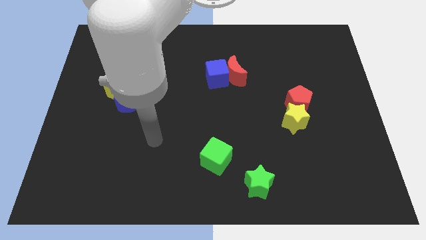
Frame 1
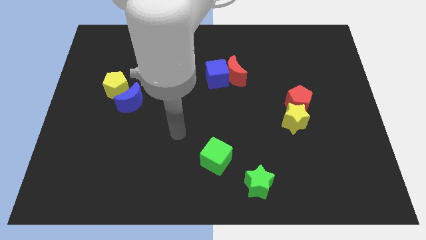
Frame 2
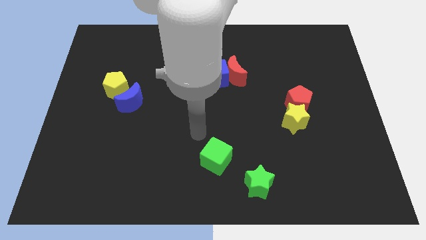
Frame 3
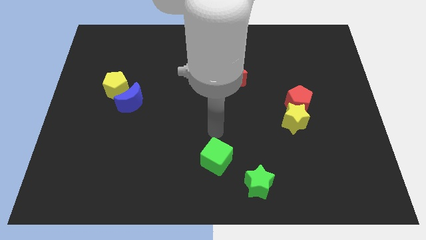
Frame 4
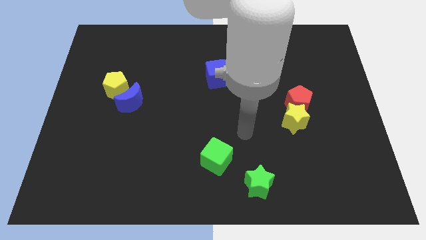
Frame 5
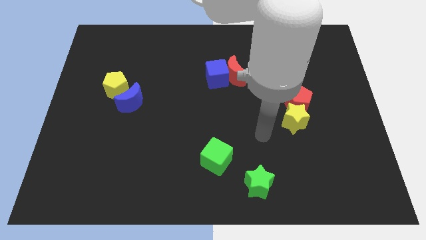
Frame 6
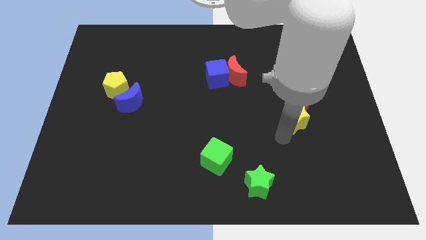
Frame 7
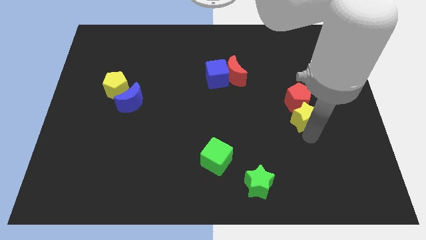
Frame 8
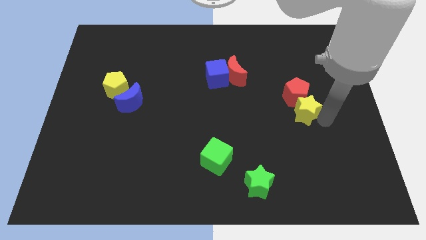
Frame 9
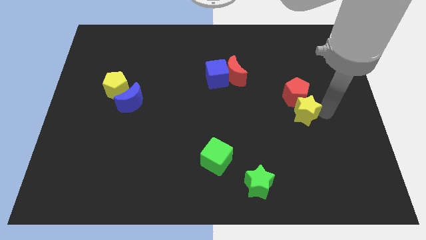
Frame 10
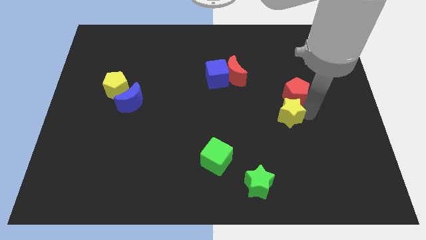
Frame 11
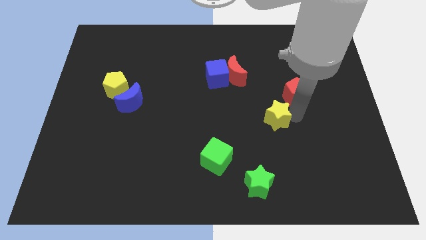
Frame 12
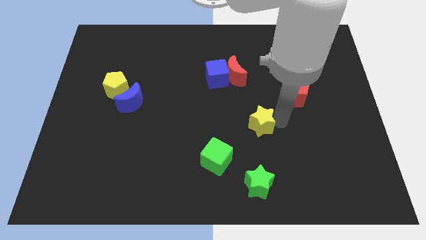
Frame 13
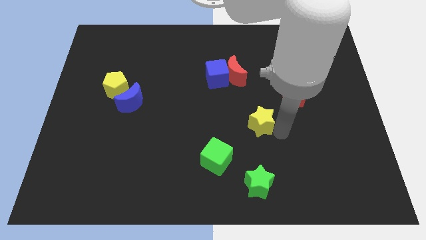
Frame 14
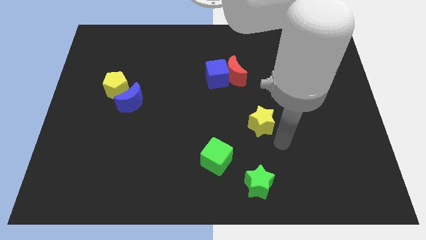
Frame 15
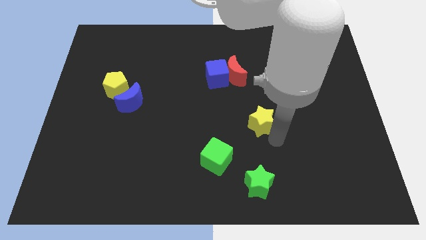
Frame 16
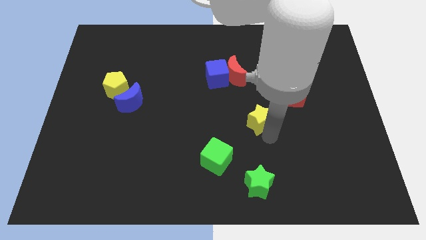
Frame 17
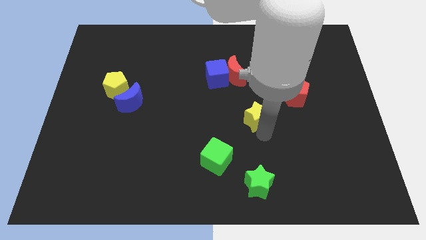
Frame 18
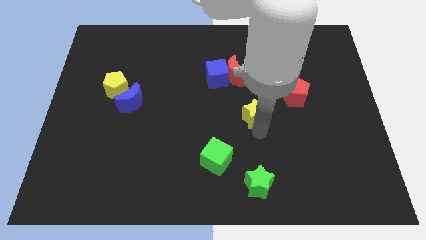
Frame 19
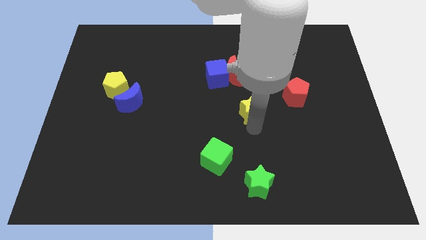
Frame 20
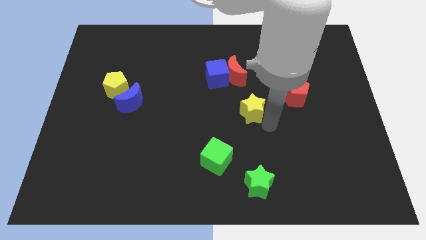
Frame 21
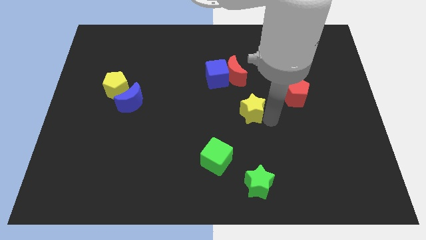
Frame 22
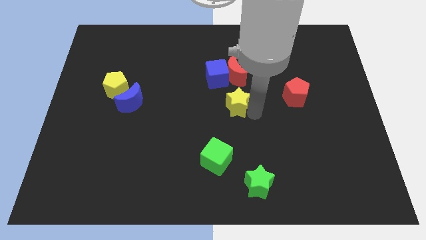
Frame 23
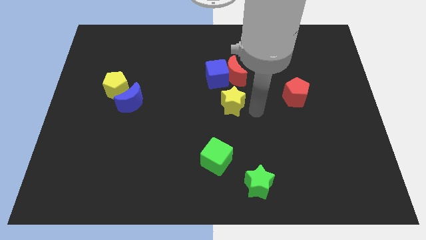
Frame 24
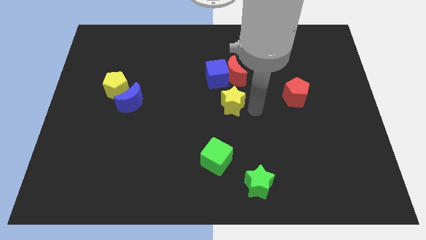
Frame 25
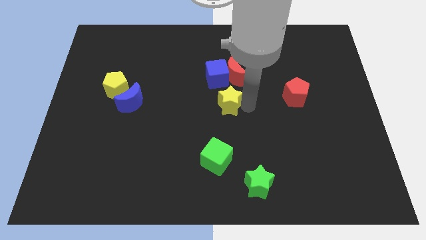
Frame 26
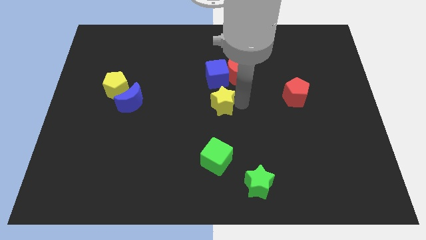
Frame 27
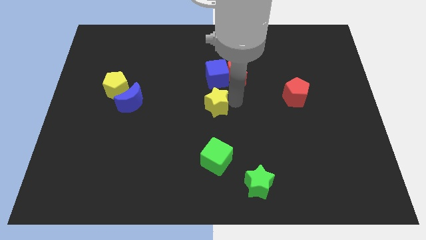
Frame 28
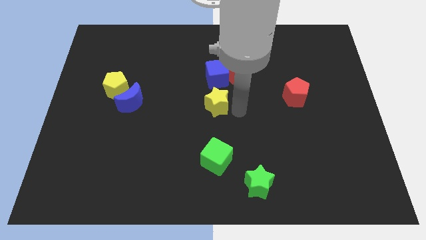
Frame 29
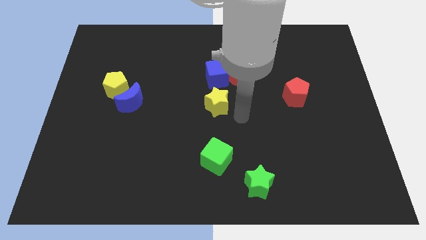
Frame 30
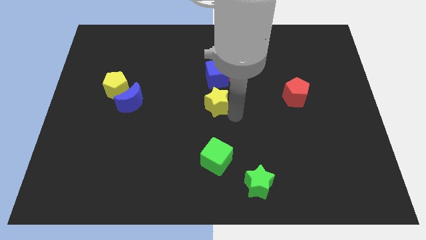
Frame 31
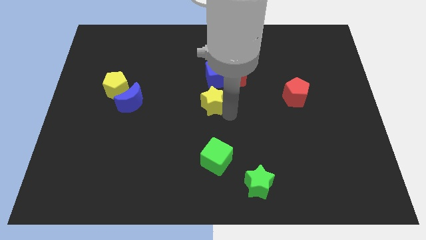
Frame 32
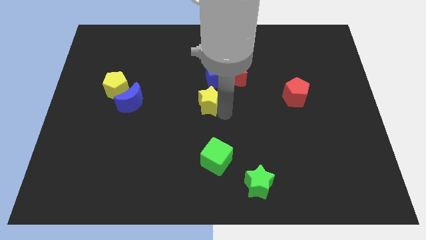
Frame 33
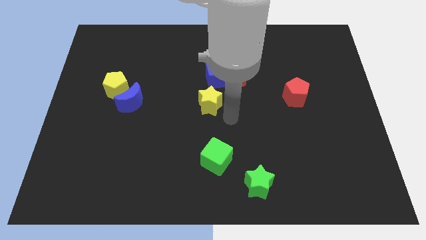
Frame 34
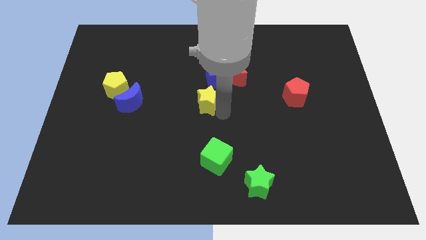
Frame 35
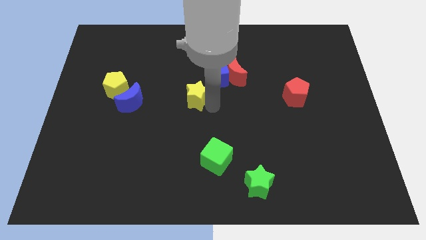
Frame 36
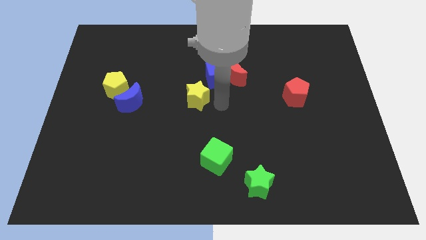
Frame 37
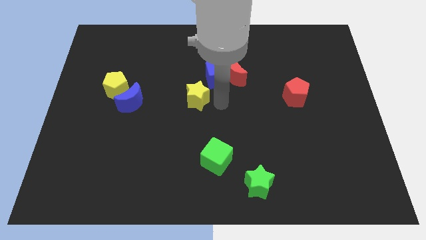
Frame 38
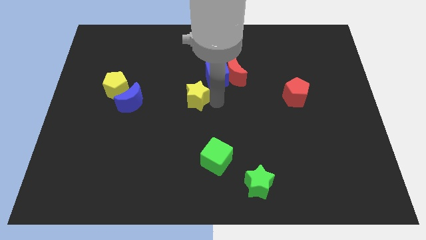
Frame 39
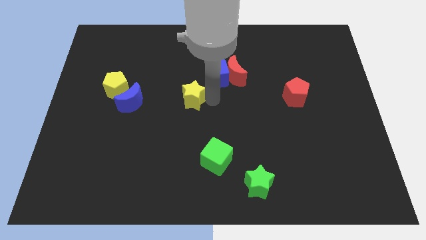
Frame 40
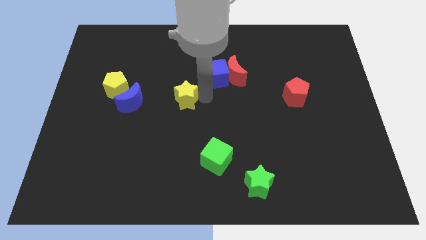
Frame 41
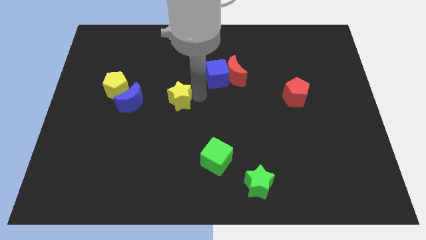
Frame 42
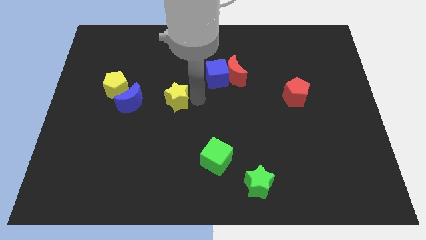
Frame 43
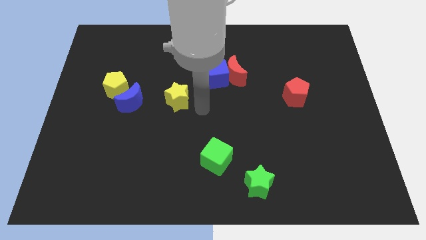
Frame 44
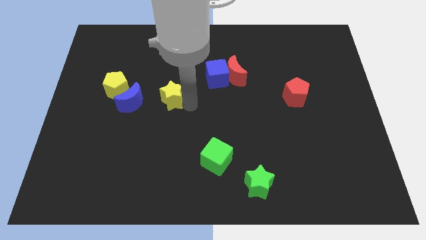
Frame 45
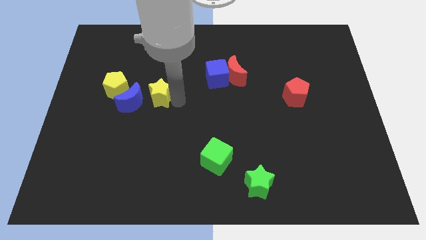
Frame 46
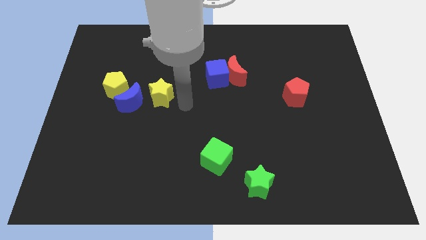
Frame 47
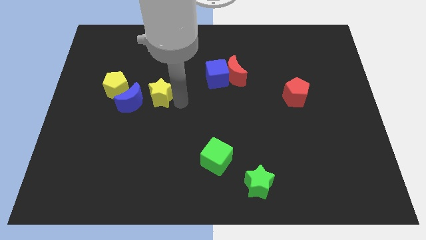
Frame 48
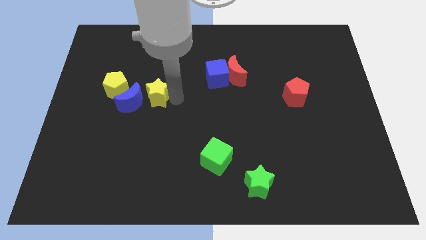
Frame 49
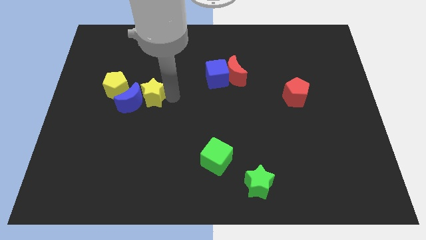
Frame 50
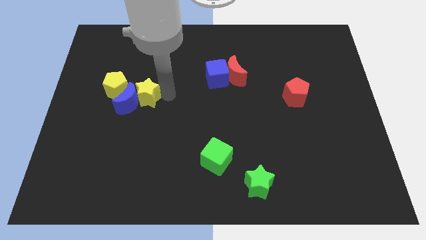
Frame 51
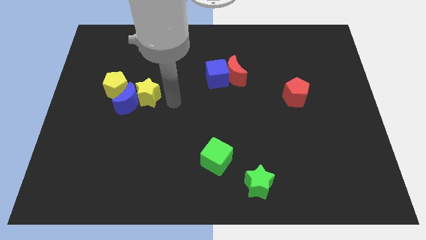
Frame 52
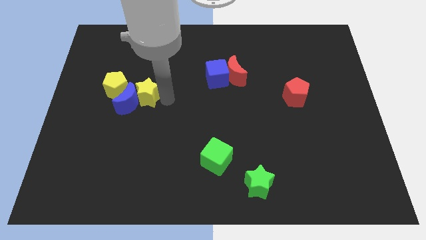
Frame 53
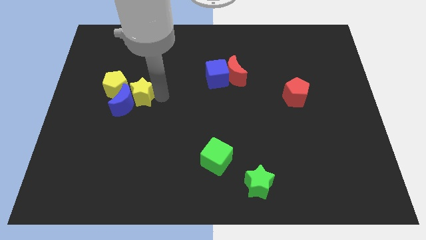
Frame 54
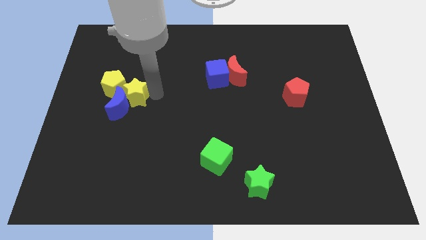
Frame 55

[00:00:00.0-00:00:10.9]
push the yellow star next to the yellow pentagon

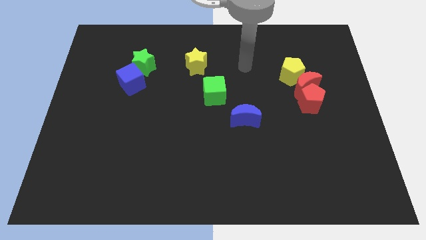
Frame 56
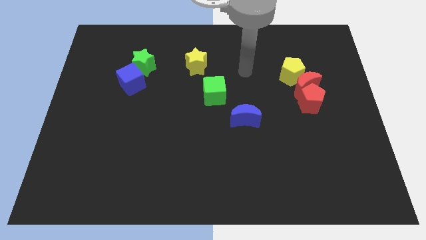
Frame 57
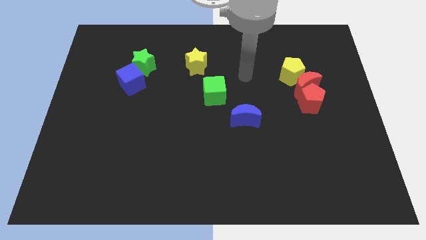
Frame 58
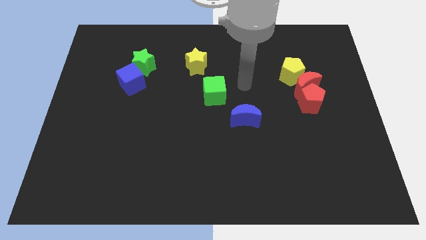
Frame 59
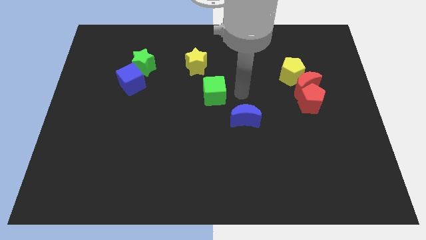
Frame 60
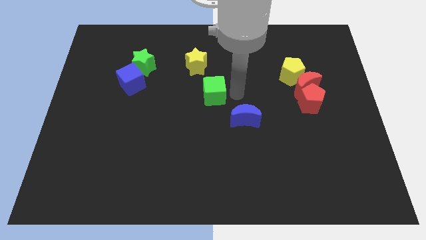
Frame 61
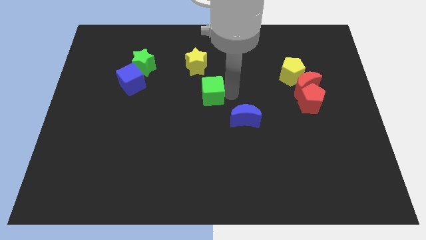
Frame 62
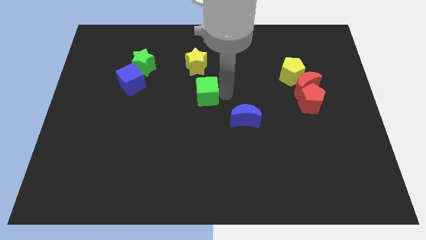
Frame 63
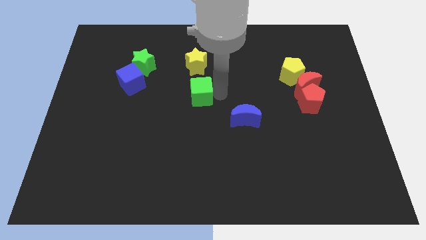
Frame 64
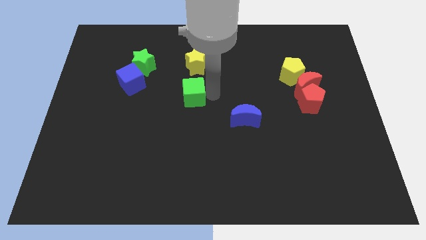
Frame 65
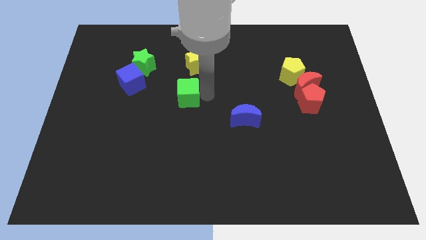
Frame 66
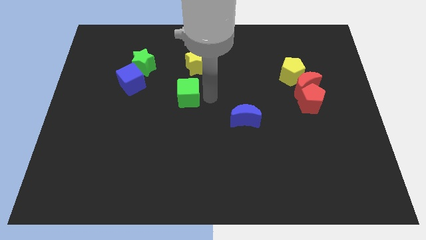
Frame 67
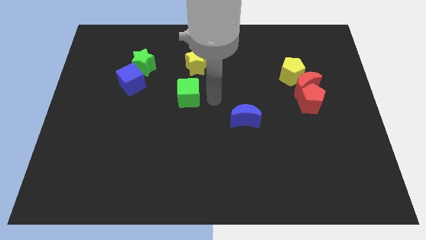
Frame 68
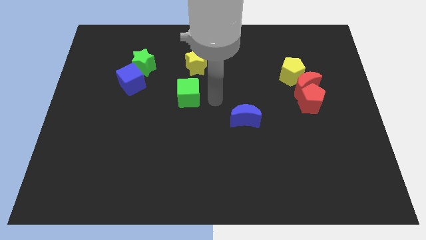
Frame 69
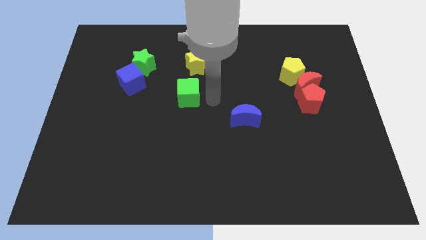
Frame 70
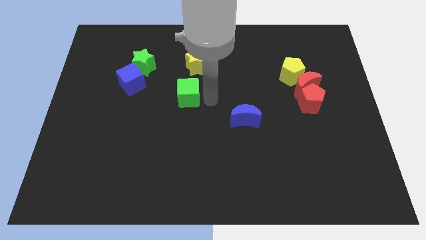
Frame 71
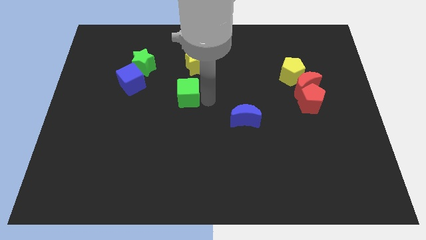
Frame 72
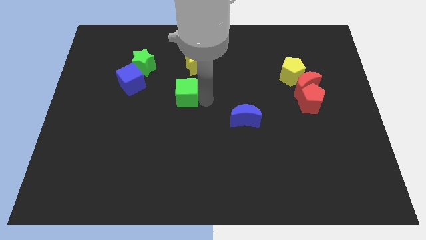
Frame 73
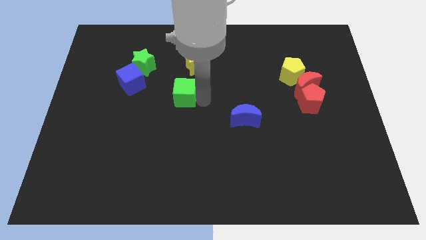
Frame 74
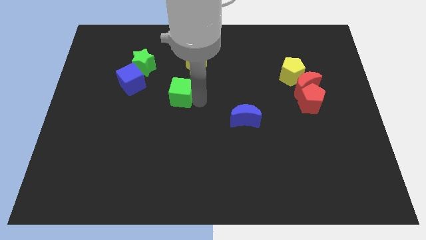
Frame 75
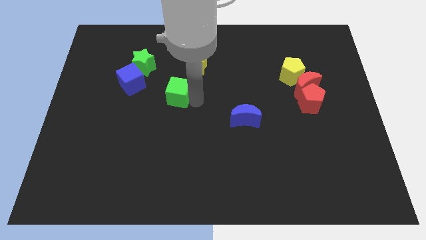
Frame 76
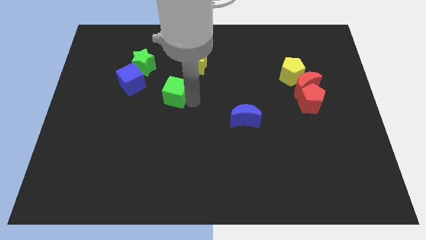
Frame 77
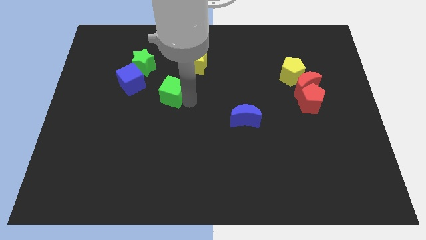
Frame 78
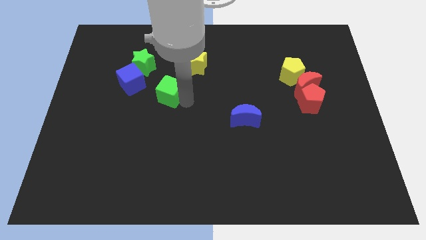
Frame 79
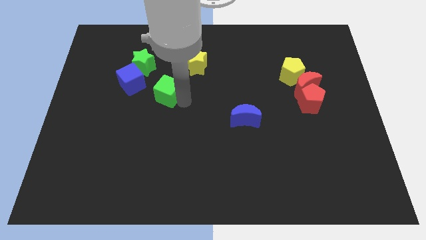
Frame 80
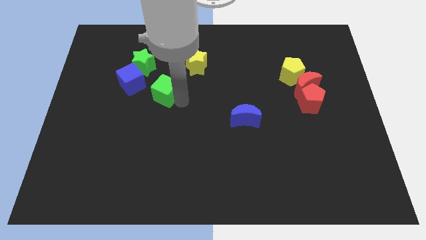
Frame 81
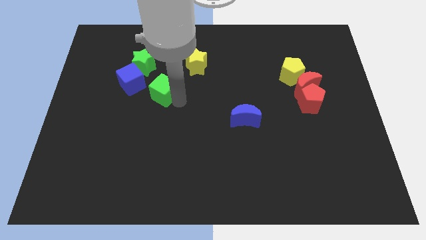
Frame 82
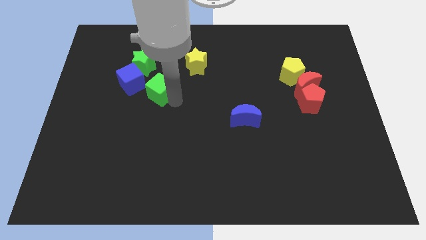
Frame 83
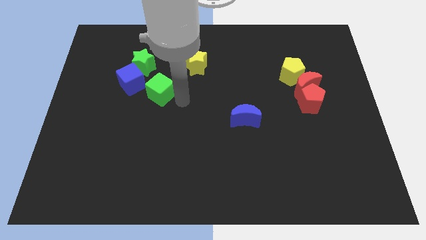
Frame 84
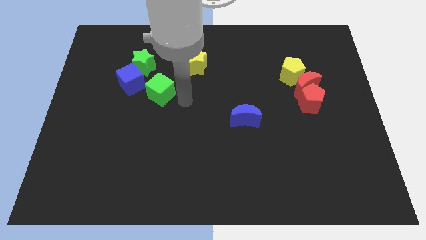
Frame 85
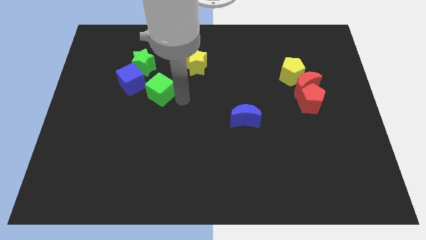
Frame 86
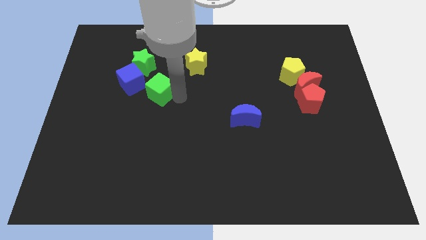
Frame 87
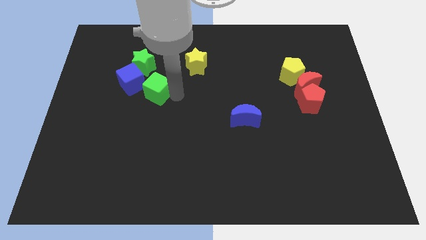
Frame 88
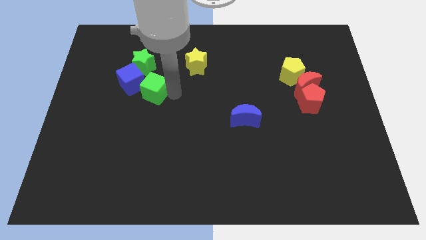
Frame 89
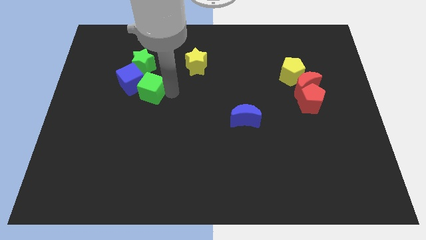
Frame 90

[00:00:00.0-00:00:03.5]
move the green cube next to the blue cube
